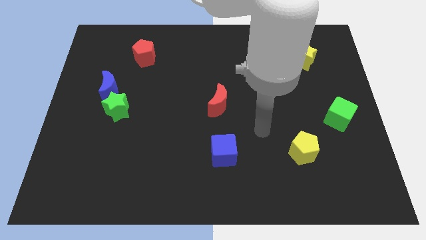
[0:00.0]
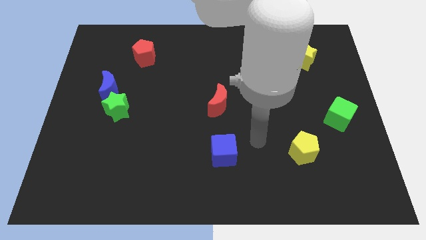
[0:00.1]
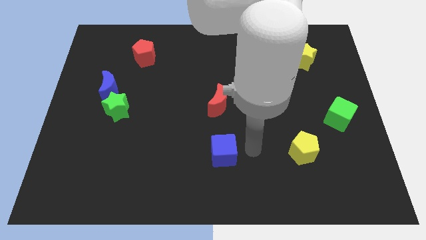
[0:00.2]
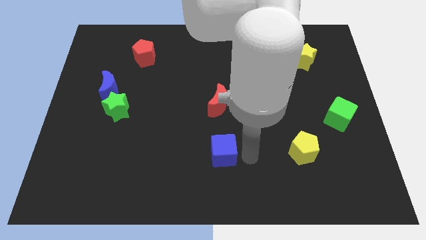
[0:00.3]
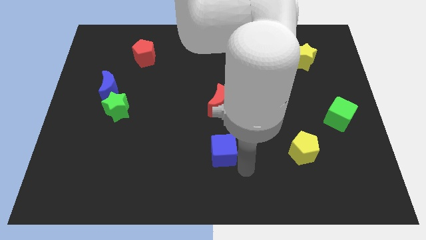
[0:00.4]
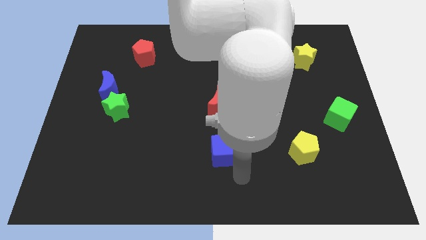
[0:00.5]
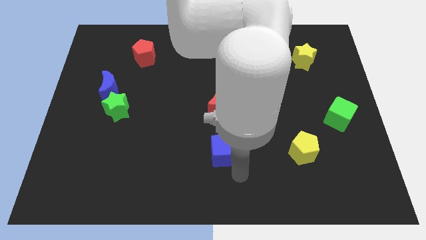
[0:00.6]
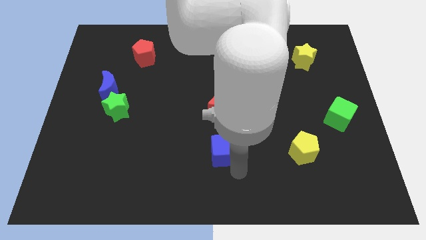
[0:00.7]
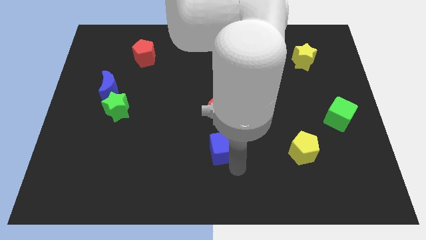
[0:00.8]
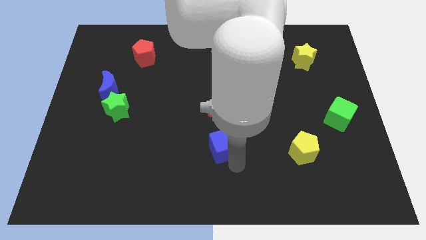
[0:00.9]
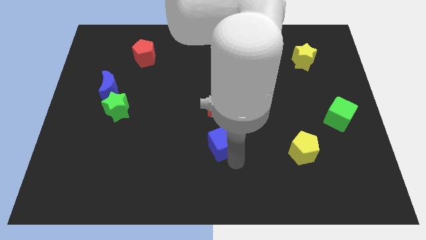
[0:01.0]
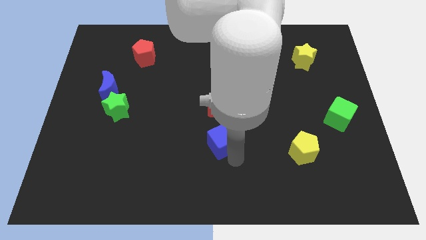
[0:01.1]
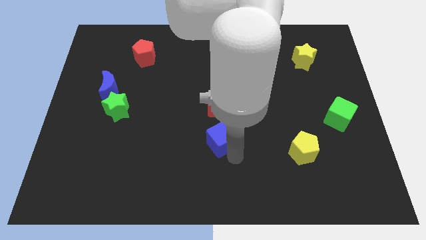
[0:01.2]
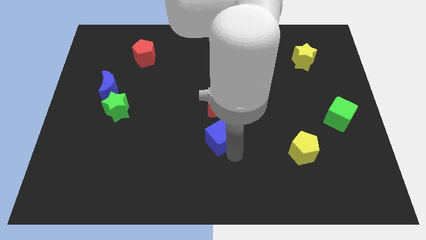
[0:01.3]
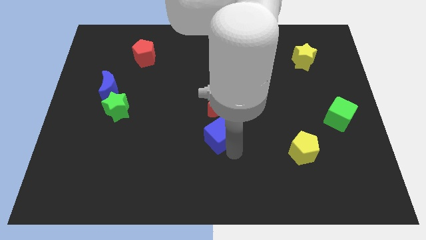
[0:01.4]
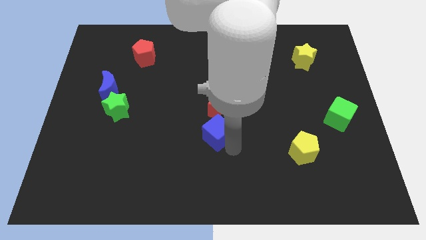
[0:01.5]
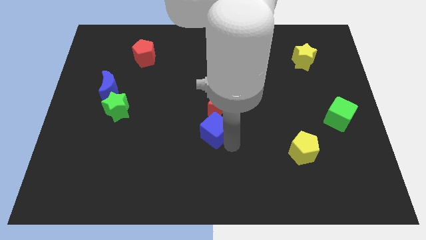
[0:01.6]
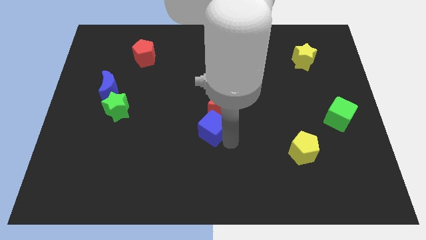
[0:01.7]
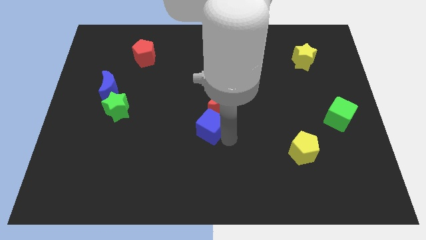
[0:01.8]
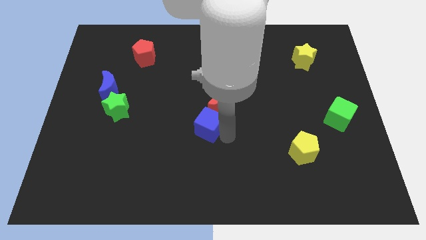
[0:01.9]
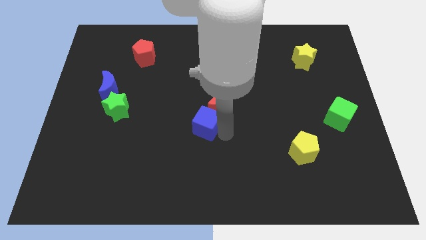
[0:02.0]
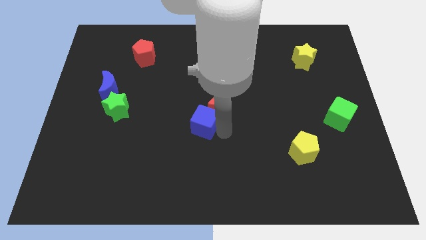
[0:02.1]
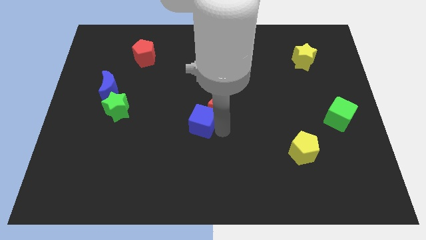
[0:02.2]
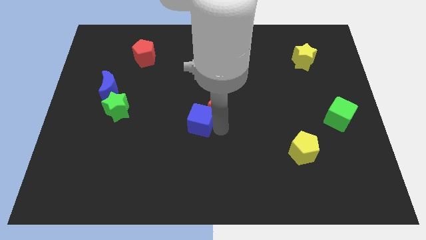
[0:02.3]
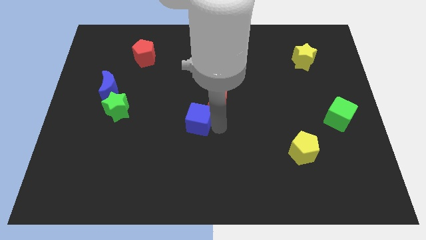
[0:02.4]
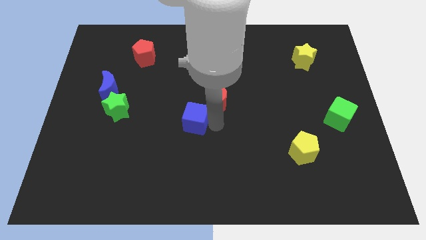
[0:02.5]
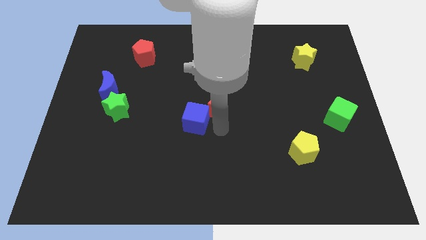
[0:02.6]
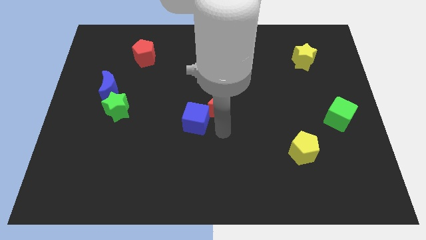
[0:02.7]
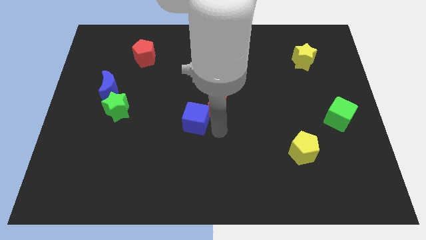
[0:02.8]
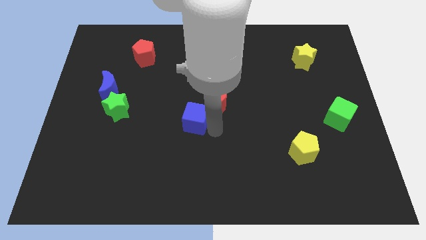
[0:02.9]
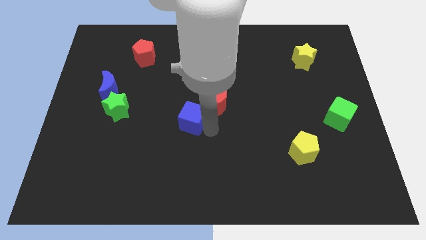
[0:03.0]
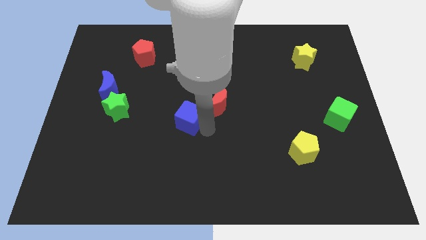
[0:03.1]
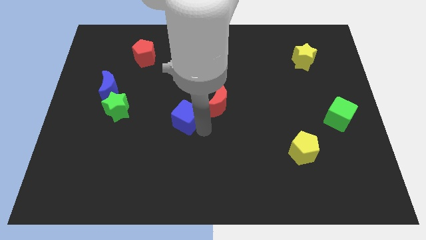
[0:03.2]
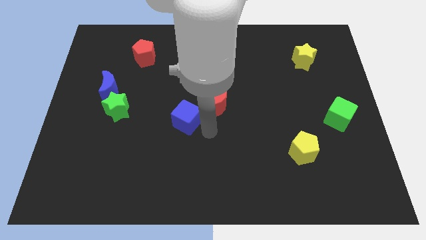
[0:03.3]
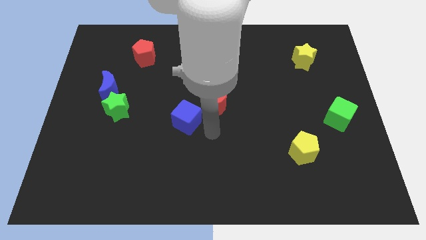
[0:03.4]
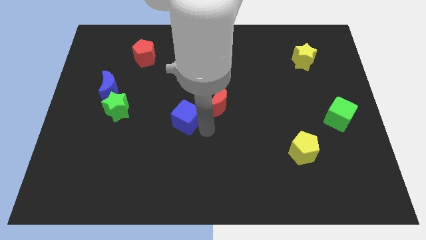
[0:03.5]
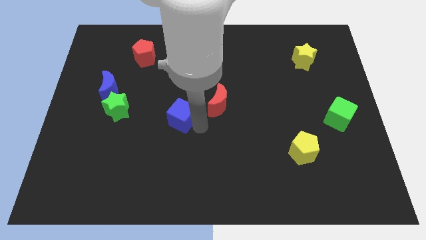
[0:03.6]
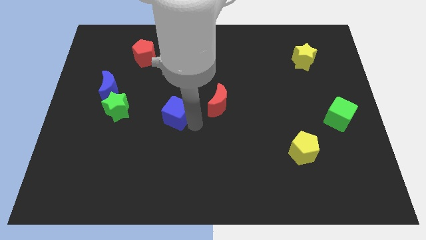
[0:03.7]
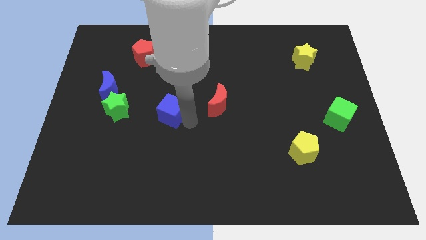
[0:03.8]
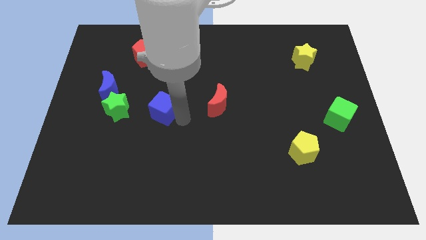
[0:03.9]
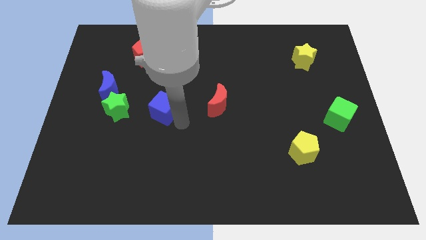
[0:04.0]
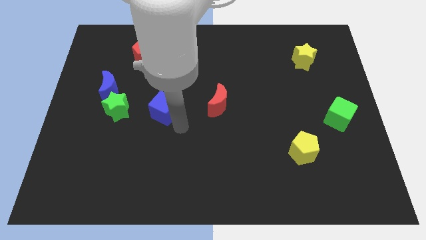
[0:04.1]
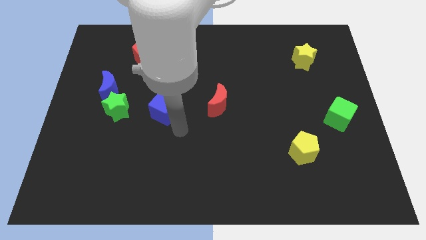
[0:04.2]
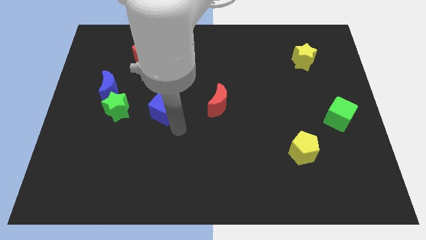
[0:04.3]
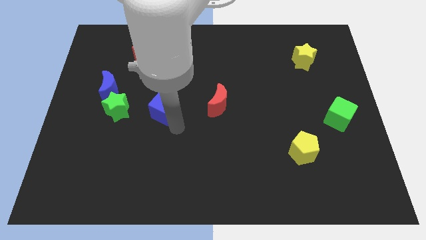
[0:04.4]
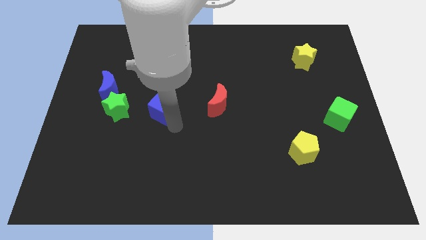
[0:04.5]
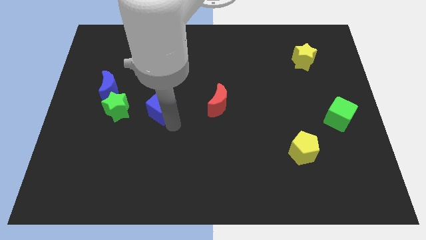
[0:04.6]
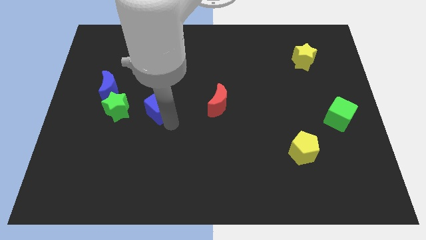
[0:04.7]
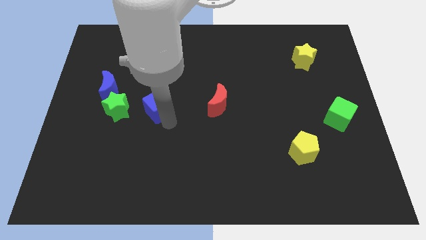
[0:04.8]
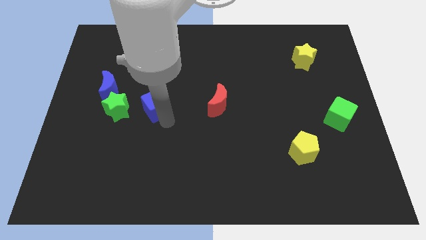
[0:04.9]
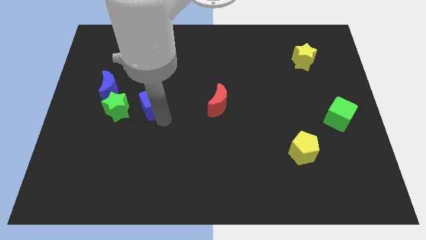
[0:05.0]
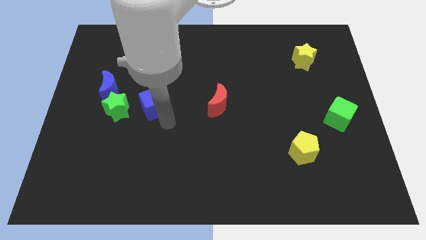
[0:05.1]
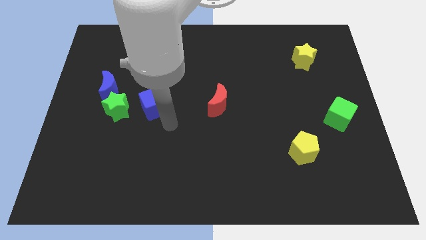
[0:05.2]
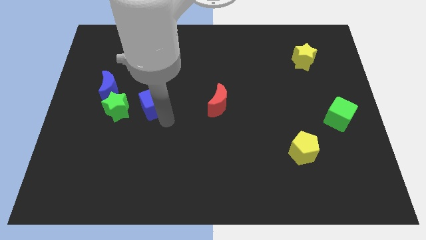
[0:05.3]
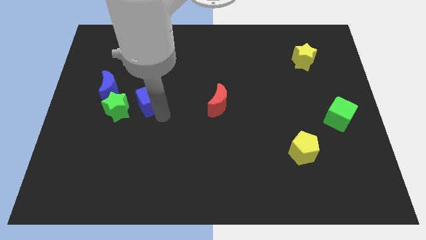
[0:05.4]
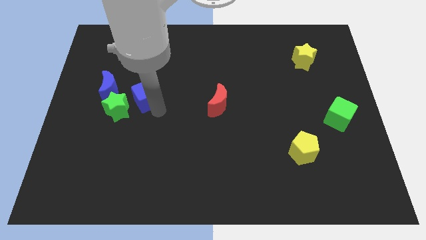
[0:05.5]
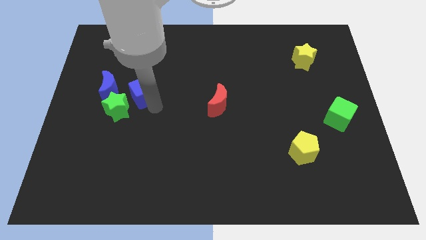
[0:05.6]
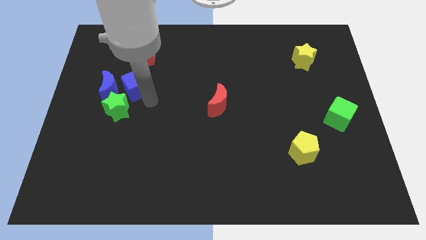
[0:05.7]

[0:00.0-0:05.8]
push the blue cube to the top side of the green star

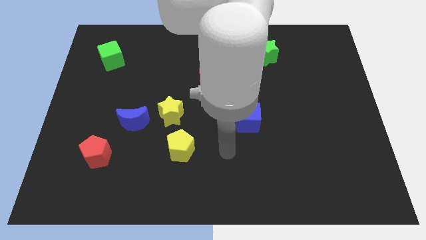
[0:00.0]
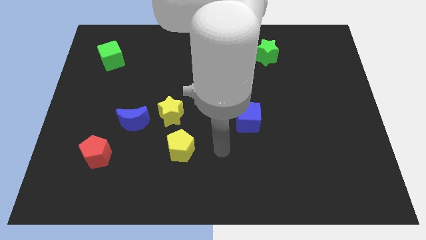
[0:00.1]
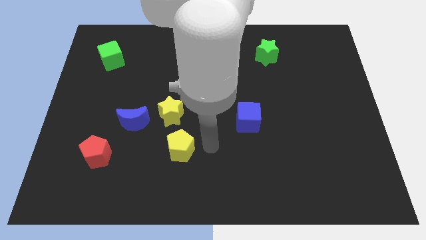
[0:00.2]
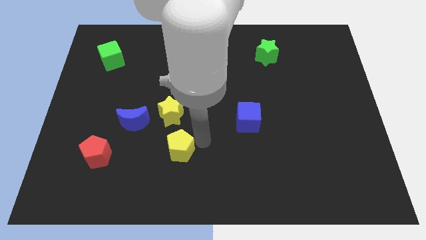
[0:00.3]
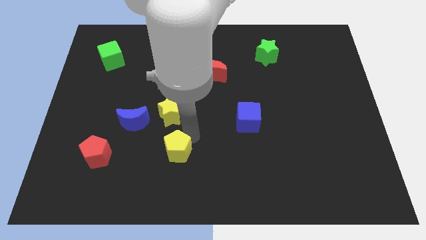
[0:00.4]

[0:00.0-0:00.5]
move the blue moon to the top left side of the yellow pentagon

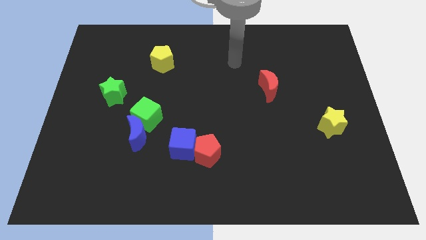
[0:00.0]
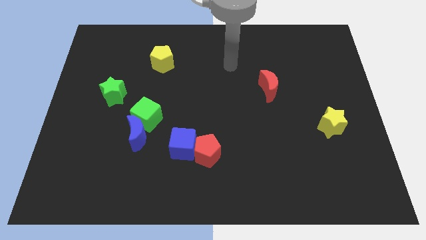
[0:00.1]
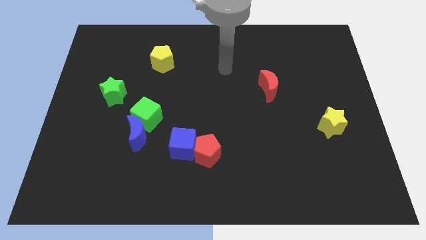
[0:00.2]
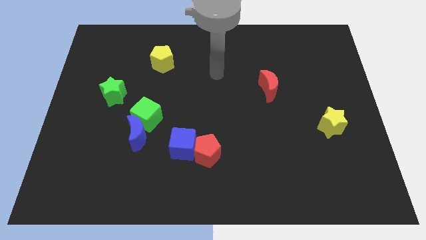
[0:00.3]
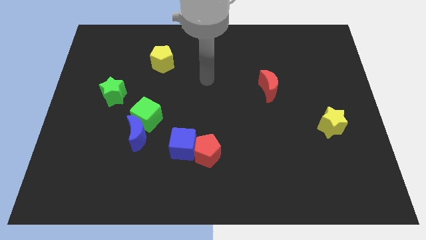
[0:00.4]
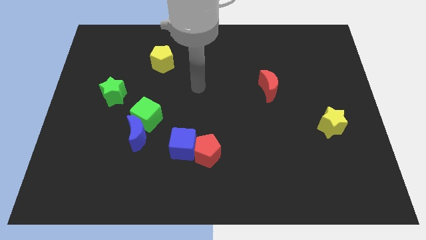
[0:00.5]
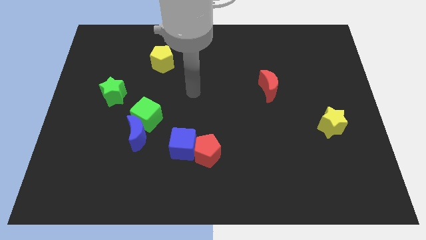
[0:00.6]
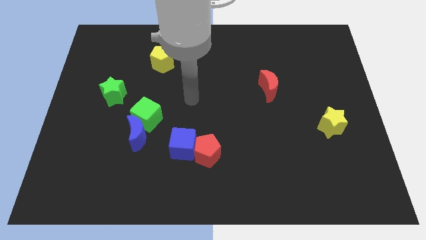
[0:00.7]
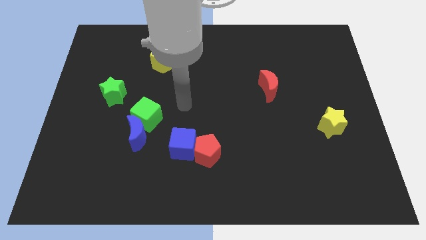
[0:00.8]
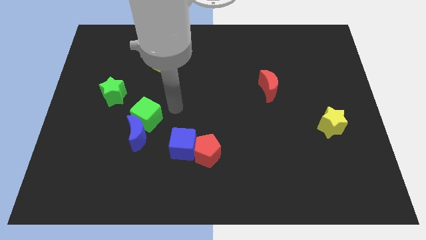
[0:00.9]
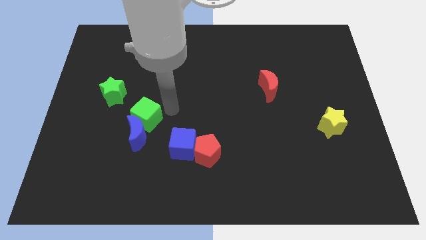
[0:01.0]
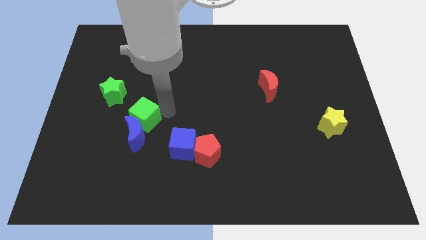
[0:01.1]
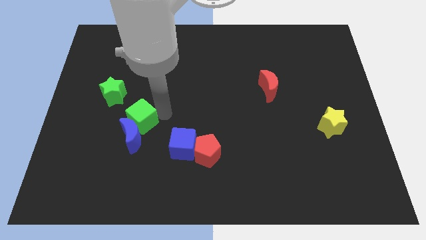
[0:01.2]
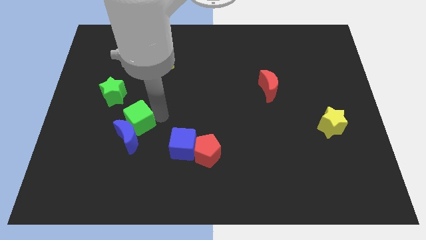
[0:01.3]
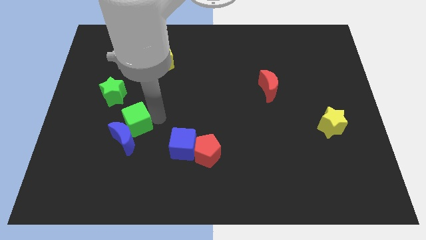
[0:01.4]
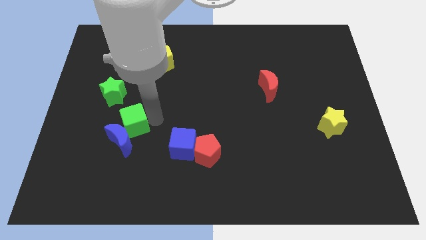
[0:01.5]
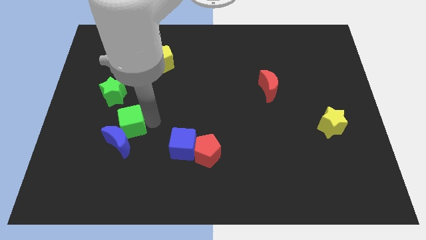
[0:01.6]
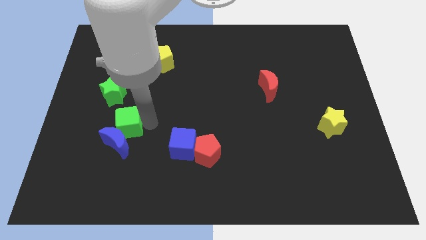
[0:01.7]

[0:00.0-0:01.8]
put the green cube to the bottom side of the green star

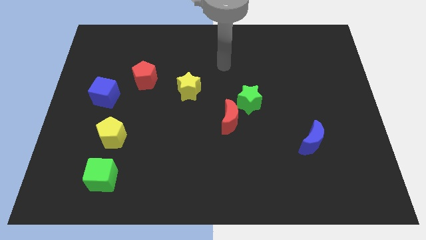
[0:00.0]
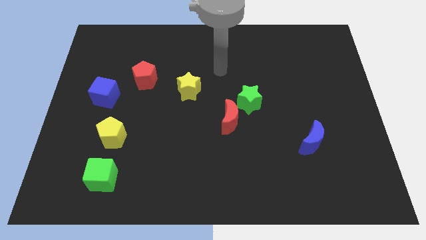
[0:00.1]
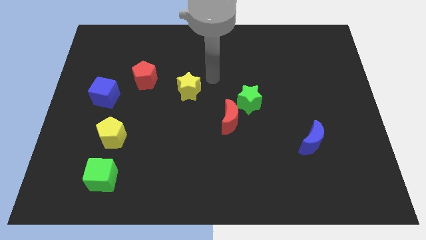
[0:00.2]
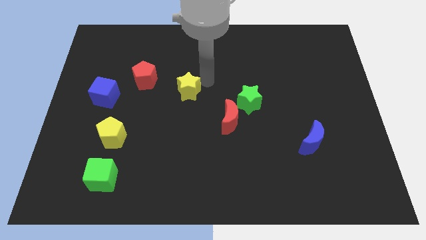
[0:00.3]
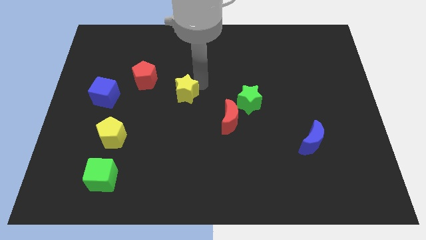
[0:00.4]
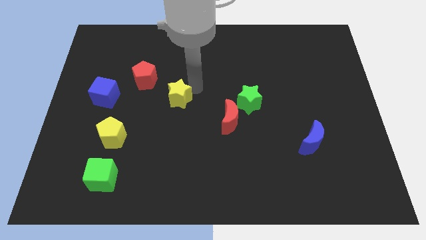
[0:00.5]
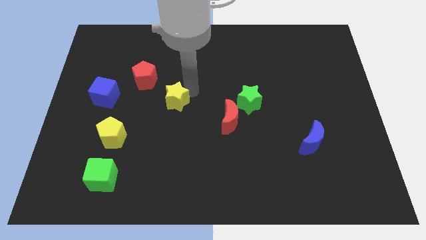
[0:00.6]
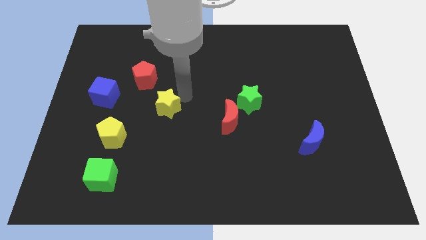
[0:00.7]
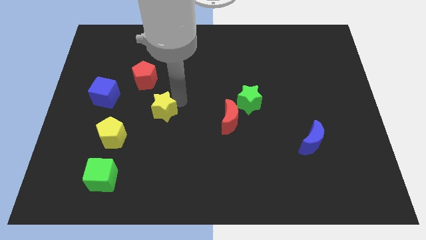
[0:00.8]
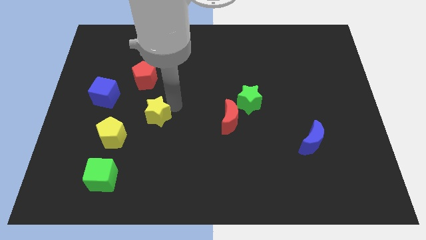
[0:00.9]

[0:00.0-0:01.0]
push the yellow star to the bottom side of the red pentagon
